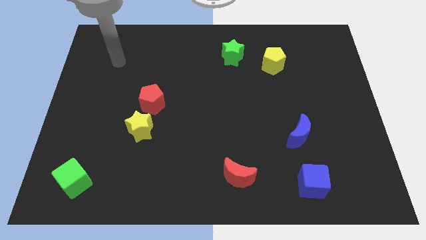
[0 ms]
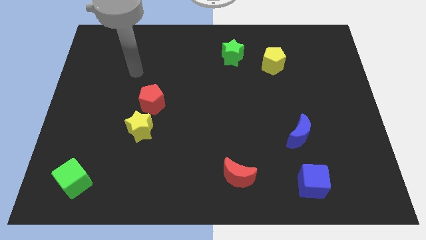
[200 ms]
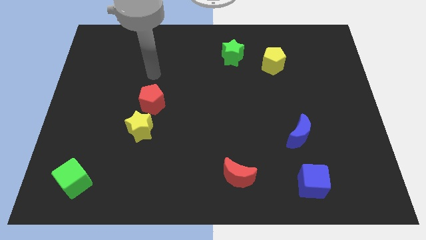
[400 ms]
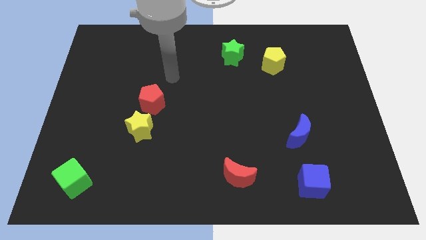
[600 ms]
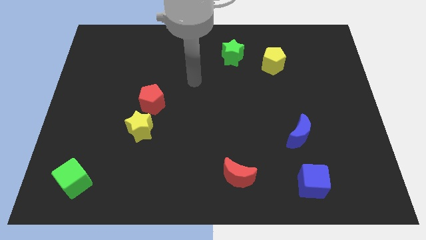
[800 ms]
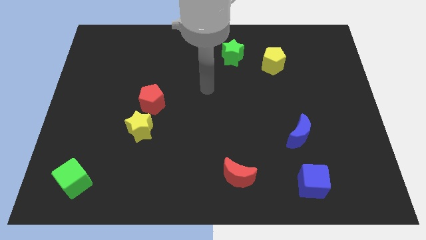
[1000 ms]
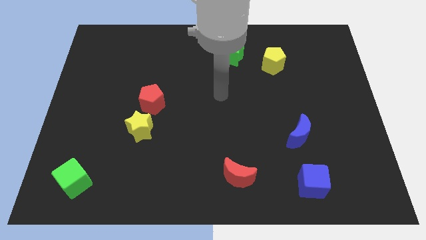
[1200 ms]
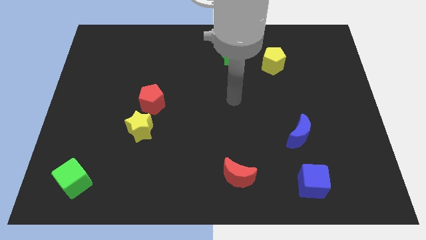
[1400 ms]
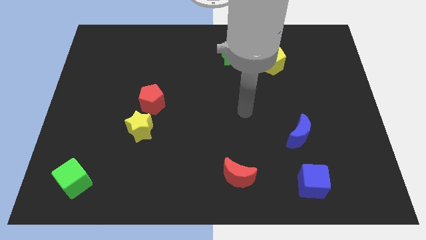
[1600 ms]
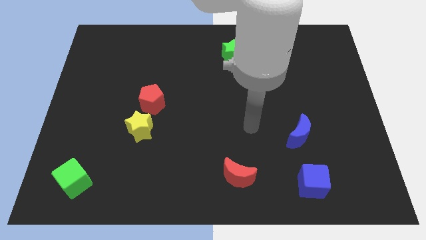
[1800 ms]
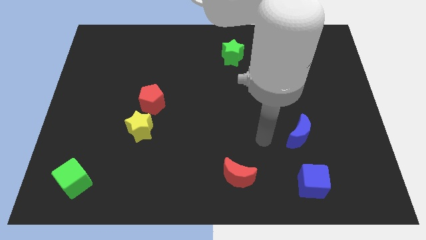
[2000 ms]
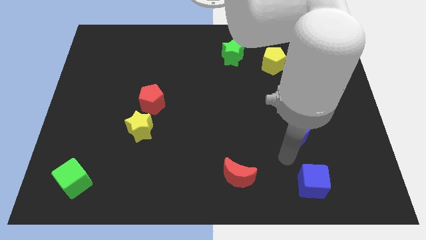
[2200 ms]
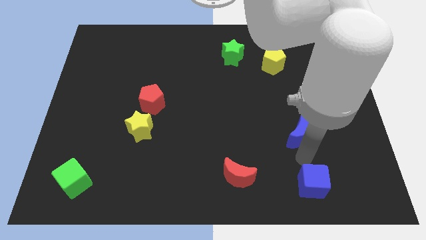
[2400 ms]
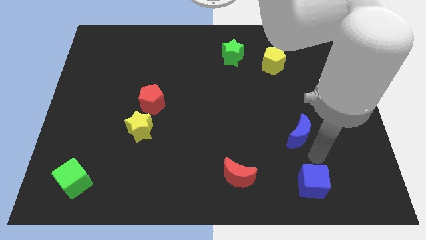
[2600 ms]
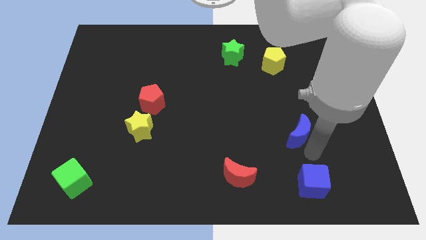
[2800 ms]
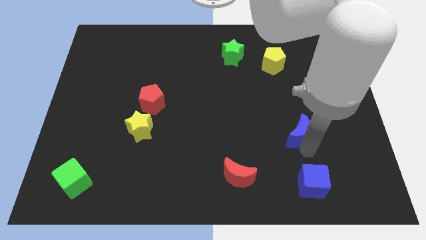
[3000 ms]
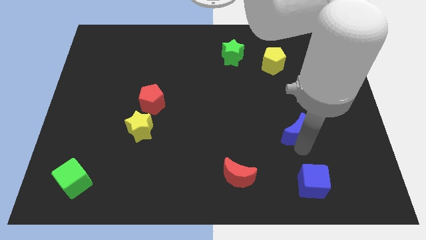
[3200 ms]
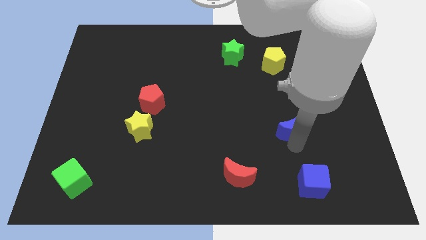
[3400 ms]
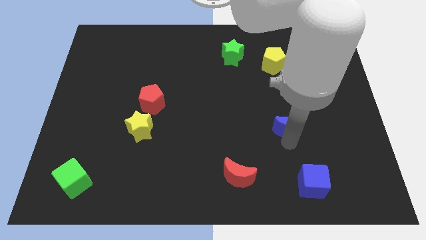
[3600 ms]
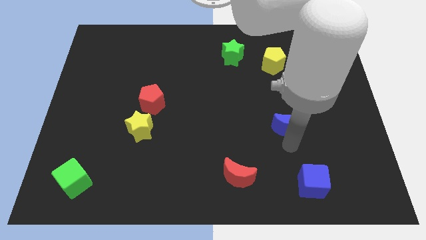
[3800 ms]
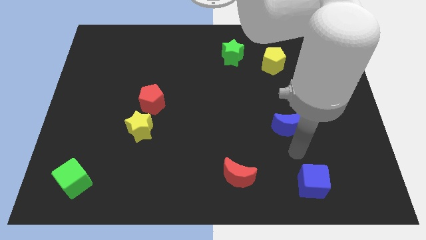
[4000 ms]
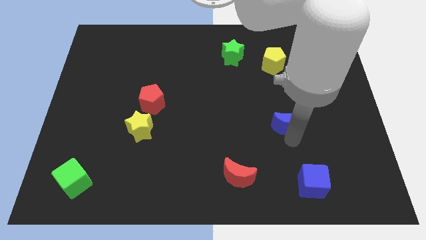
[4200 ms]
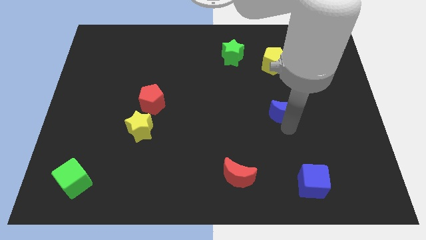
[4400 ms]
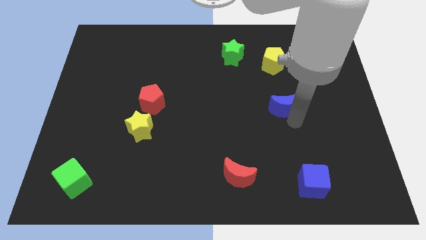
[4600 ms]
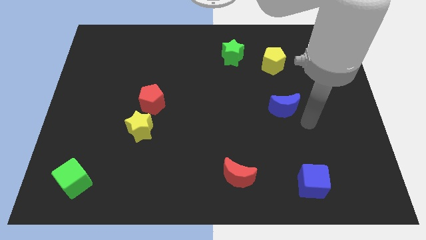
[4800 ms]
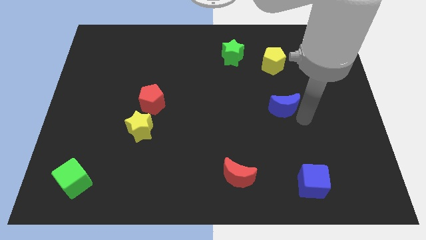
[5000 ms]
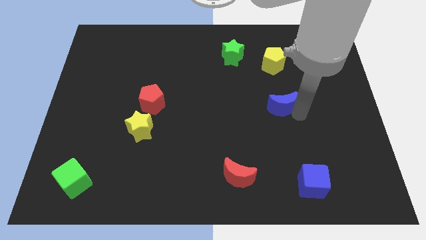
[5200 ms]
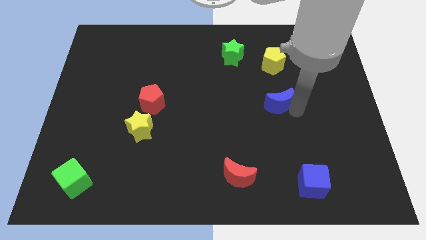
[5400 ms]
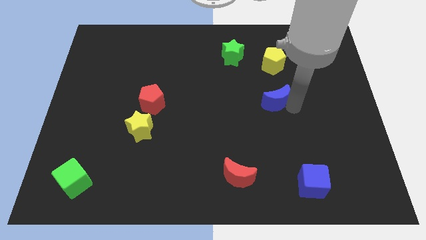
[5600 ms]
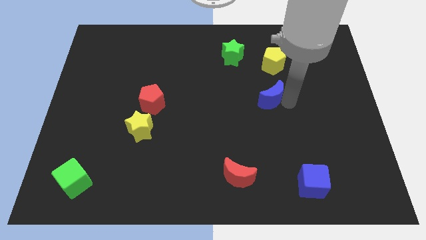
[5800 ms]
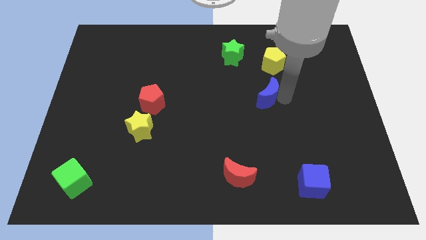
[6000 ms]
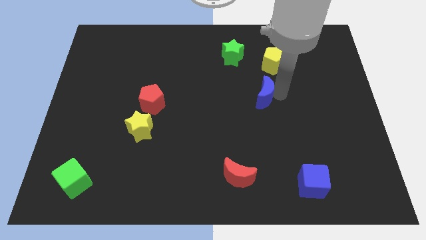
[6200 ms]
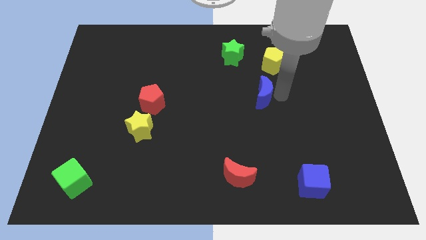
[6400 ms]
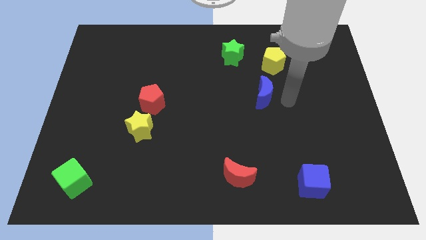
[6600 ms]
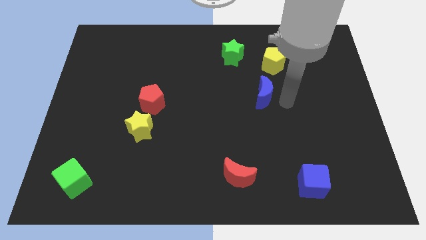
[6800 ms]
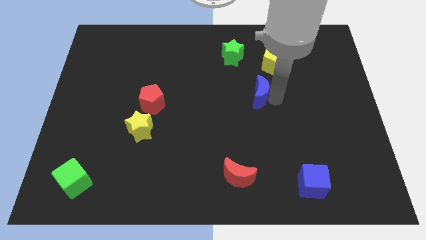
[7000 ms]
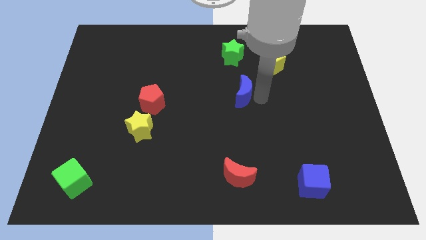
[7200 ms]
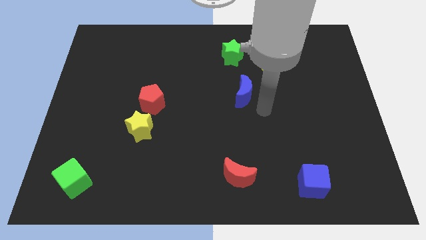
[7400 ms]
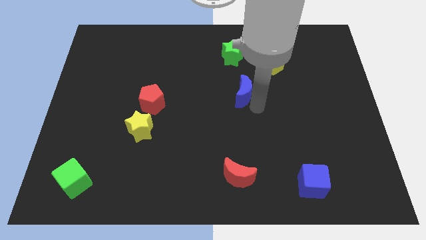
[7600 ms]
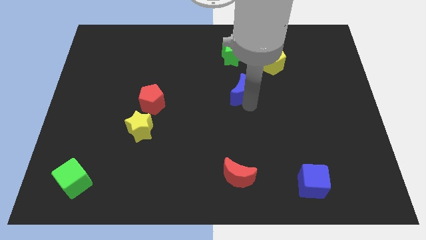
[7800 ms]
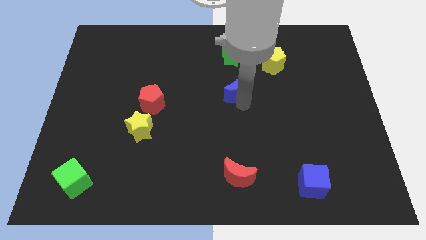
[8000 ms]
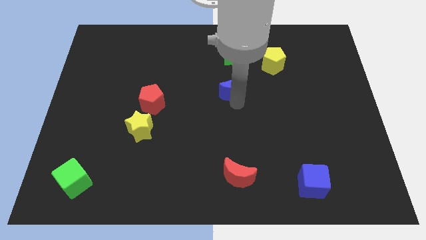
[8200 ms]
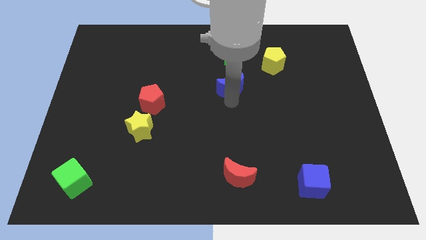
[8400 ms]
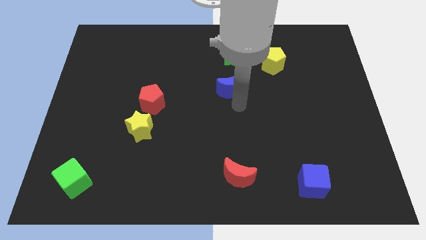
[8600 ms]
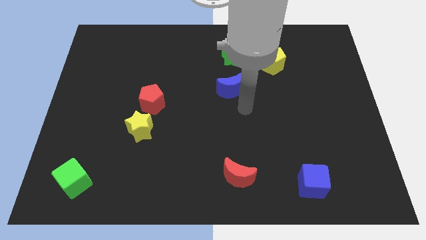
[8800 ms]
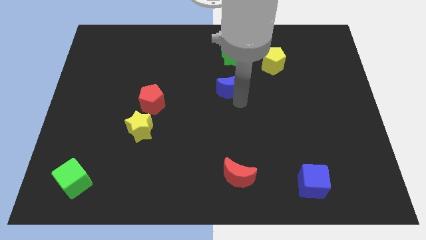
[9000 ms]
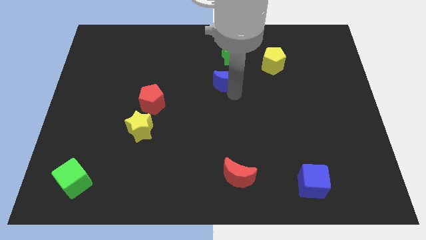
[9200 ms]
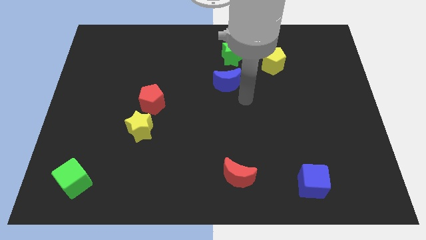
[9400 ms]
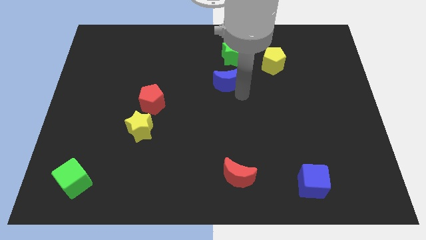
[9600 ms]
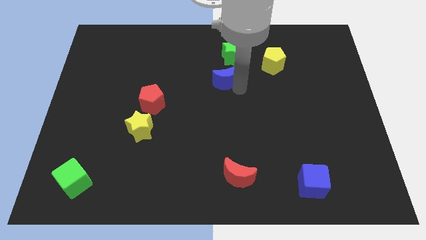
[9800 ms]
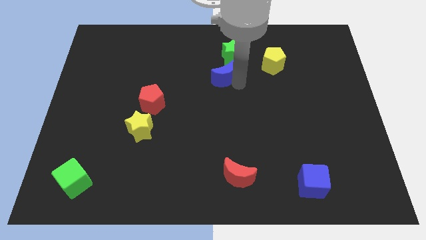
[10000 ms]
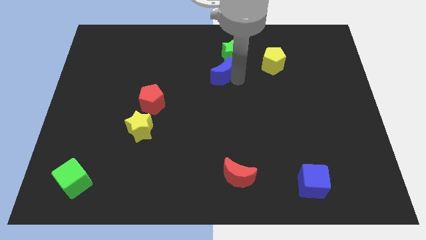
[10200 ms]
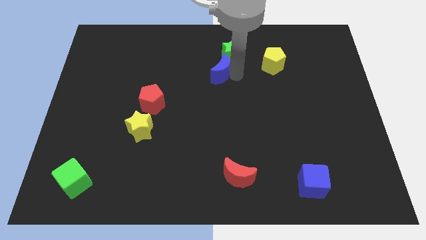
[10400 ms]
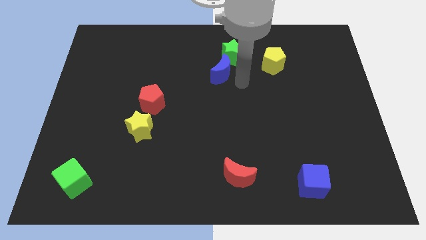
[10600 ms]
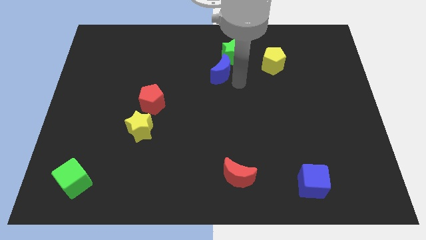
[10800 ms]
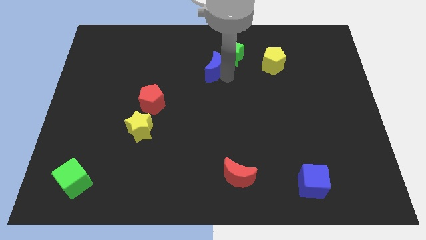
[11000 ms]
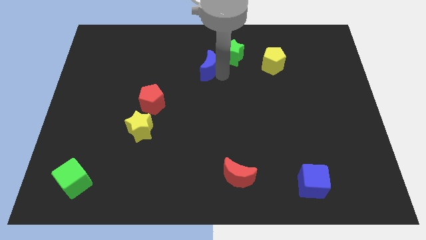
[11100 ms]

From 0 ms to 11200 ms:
push the blue moon just left of the green star

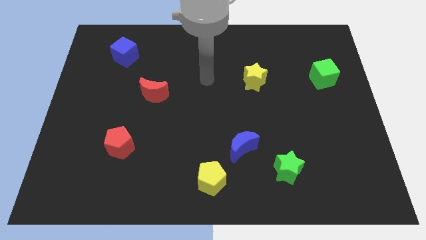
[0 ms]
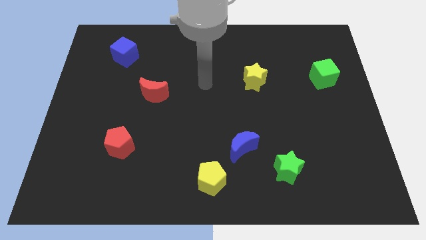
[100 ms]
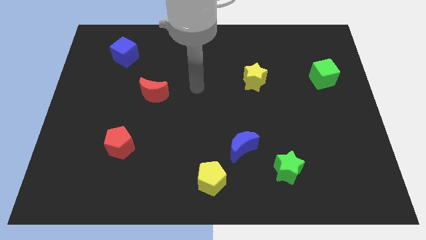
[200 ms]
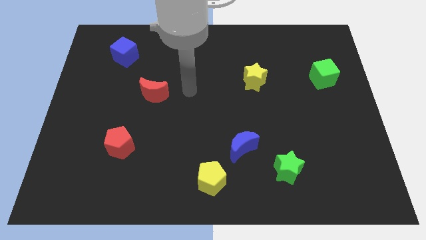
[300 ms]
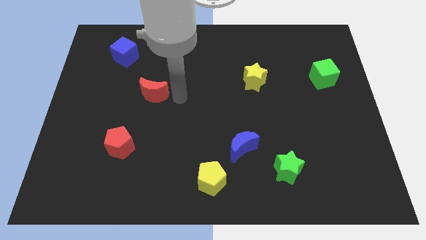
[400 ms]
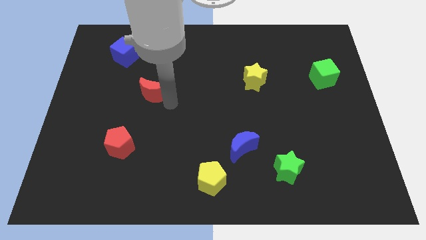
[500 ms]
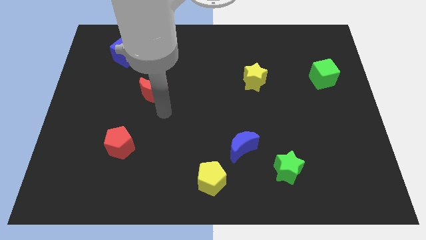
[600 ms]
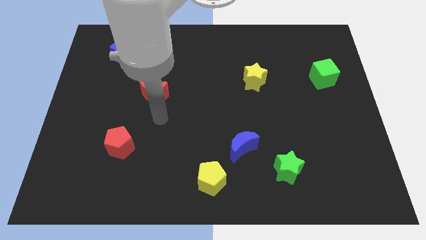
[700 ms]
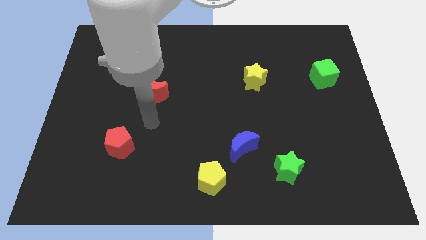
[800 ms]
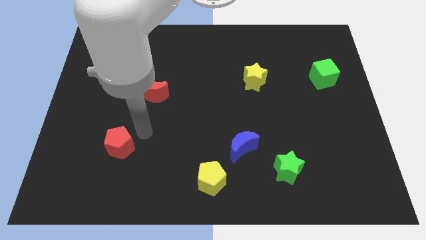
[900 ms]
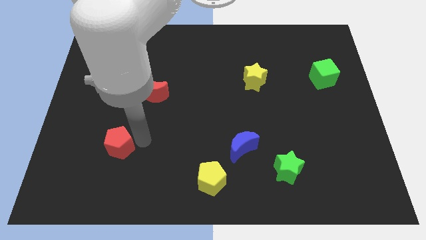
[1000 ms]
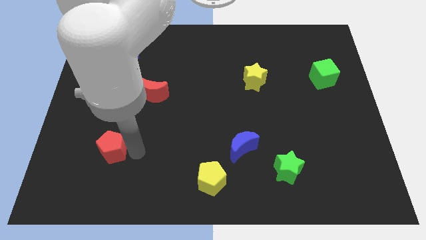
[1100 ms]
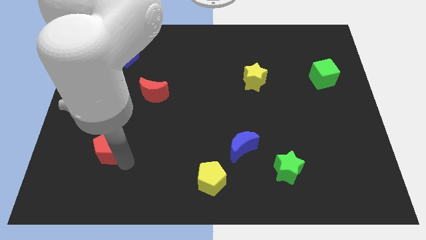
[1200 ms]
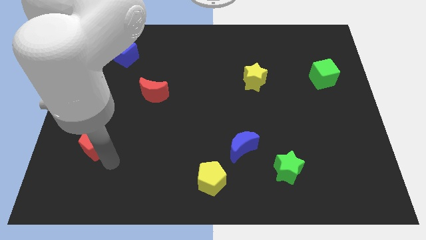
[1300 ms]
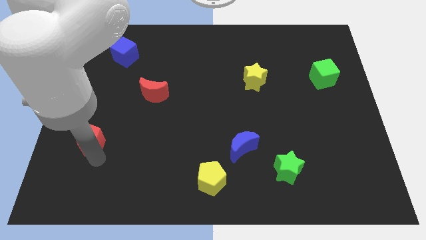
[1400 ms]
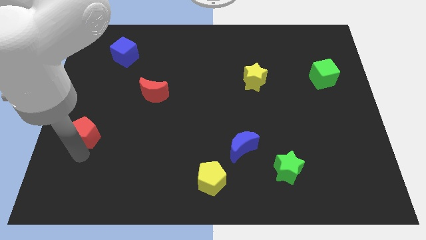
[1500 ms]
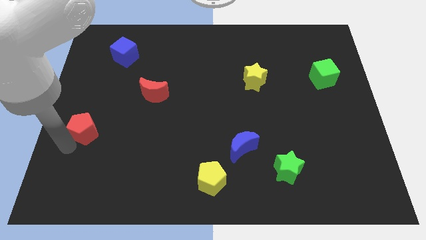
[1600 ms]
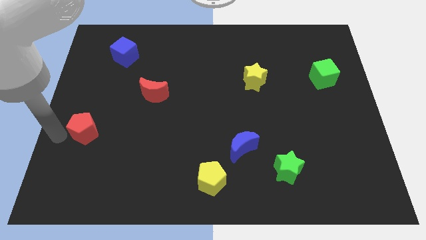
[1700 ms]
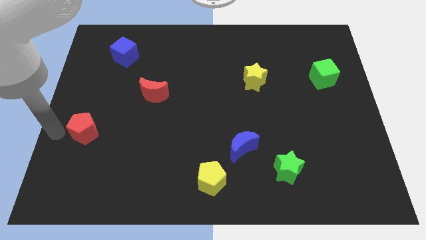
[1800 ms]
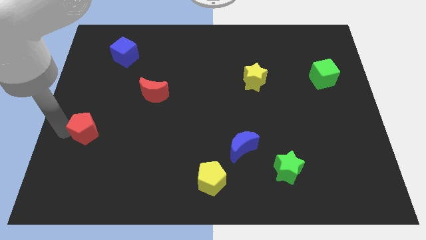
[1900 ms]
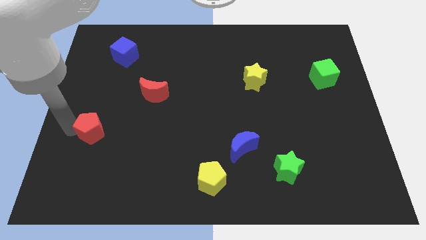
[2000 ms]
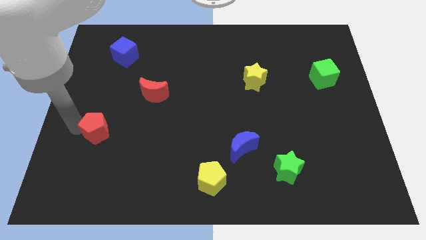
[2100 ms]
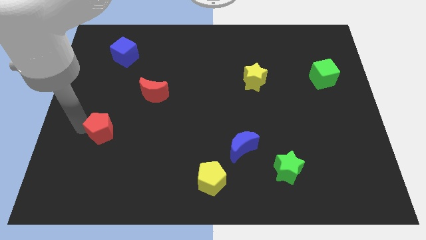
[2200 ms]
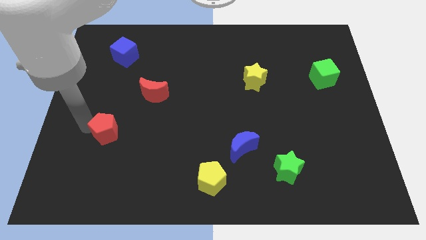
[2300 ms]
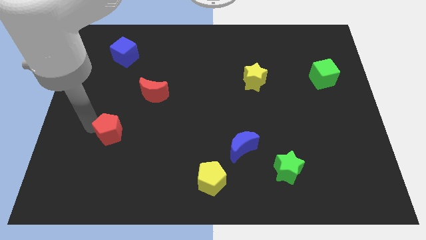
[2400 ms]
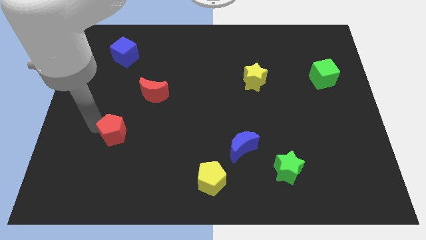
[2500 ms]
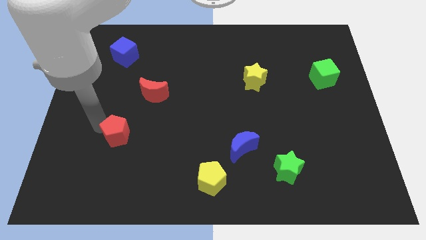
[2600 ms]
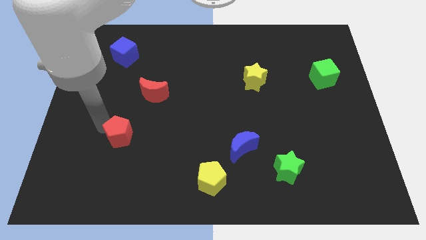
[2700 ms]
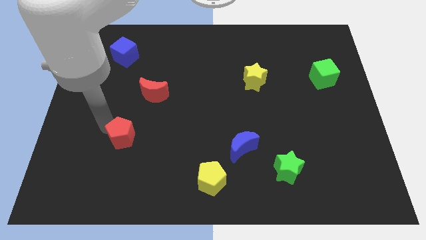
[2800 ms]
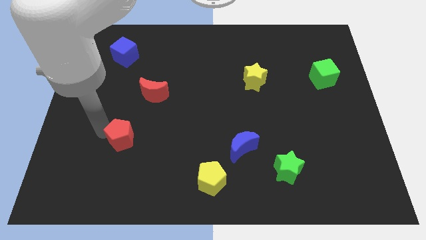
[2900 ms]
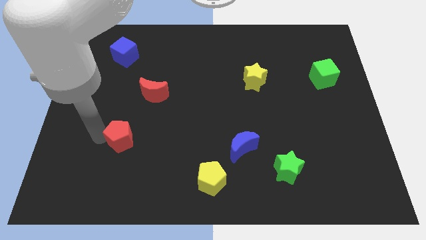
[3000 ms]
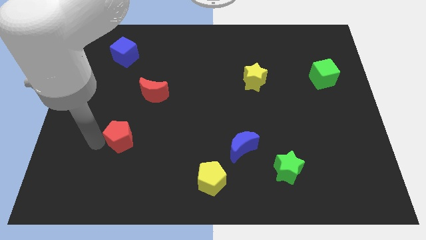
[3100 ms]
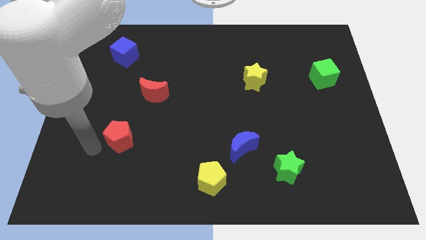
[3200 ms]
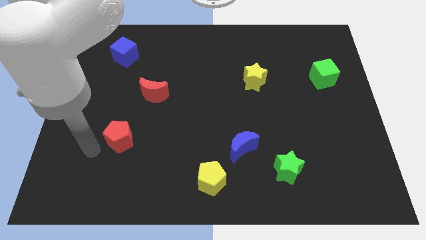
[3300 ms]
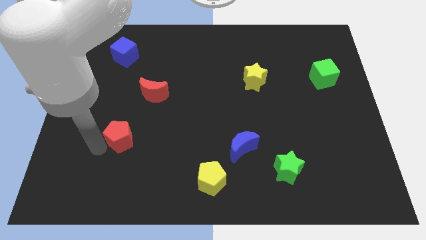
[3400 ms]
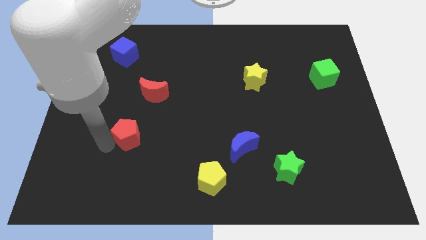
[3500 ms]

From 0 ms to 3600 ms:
put the red pentagon to the bottom of the red moon
